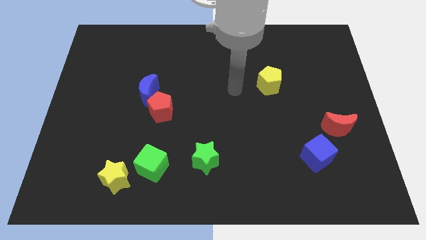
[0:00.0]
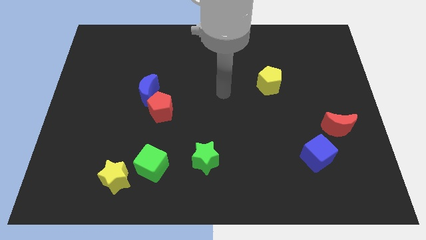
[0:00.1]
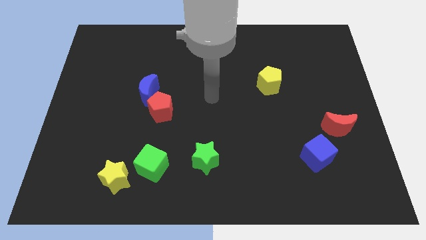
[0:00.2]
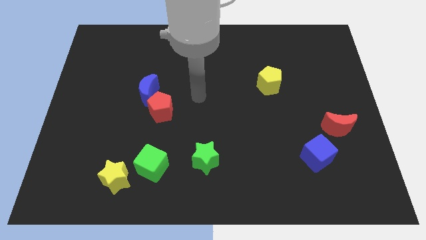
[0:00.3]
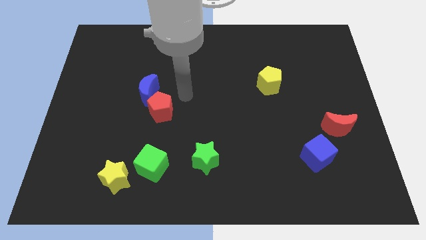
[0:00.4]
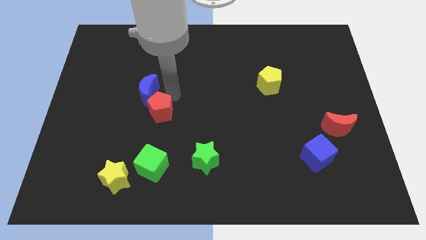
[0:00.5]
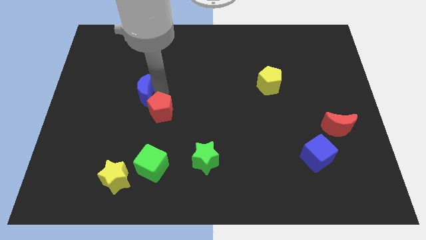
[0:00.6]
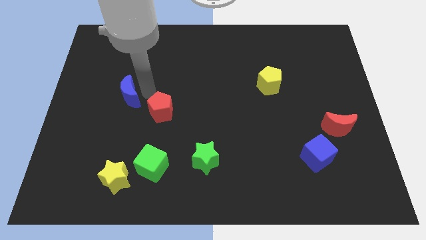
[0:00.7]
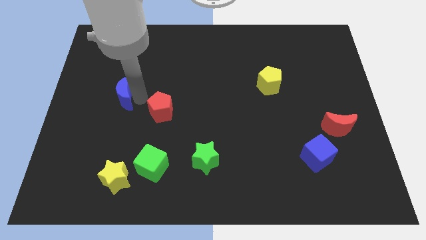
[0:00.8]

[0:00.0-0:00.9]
separate the red pentagon from the blue moon

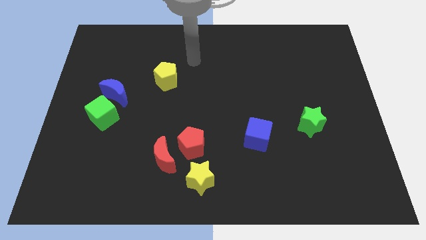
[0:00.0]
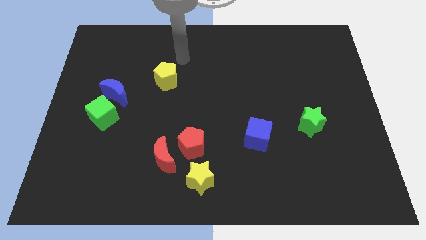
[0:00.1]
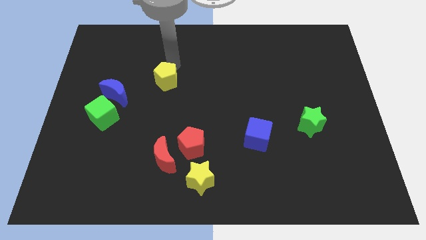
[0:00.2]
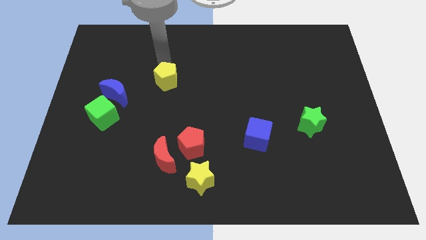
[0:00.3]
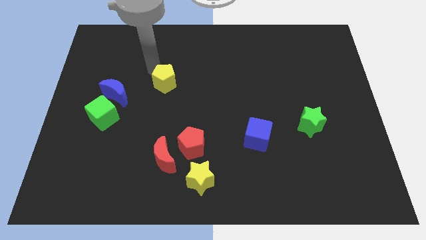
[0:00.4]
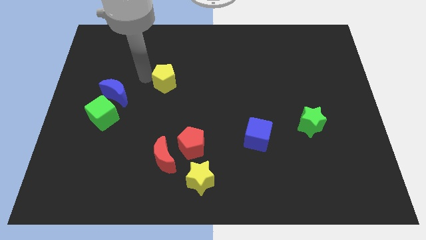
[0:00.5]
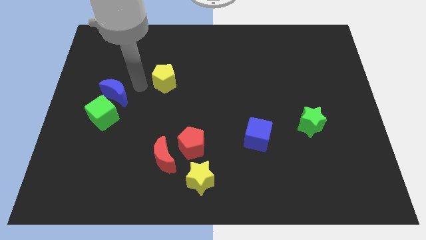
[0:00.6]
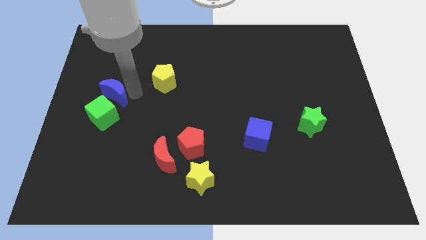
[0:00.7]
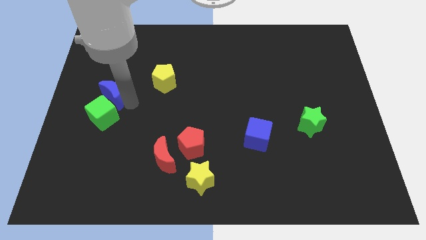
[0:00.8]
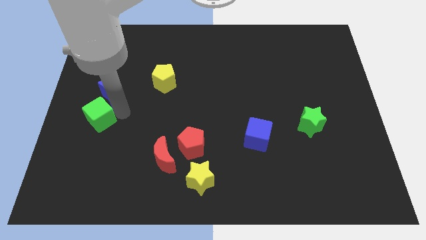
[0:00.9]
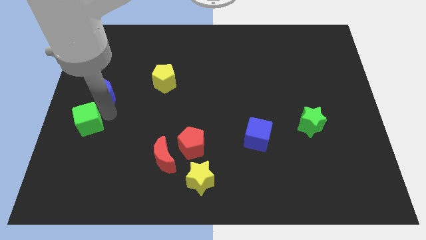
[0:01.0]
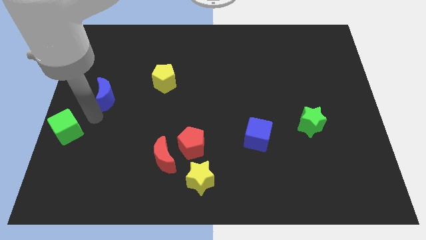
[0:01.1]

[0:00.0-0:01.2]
separate the blue moon from the green cube

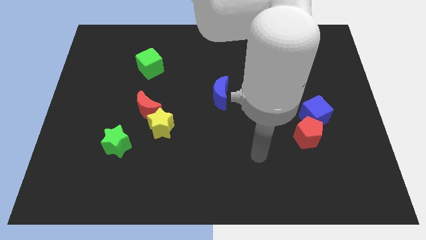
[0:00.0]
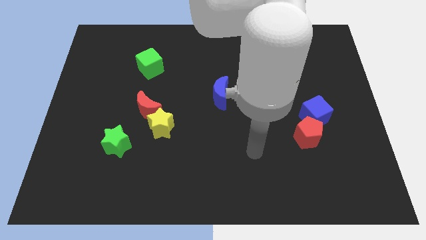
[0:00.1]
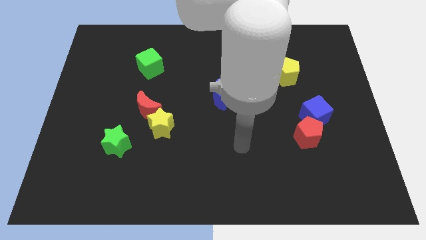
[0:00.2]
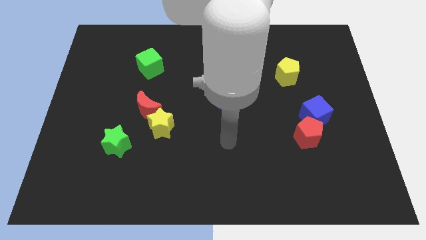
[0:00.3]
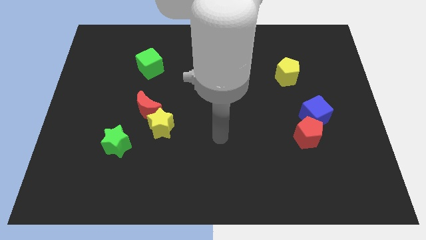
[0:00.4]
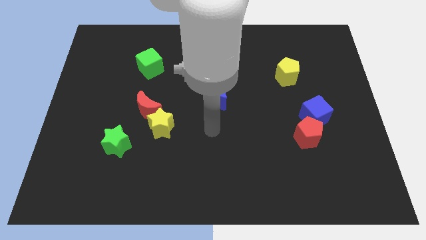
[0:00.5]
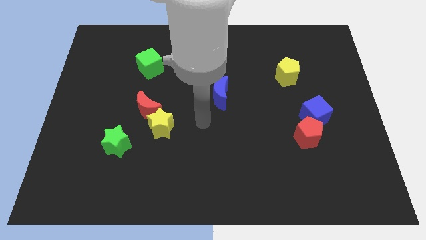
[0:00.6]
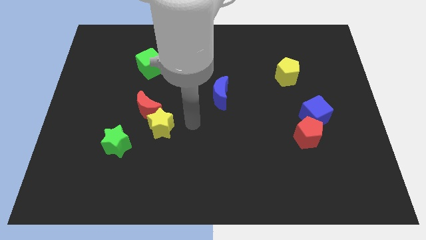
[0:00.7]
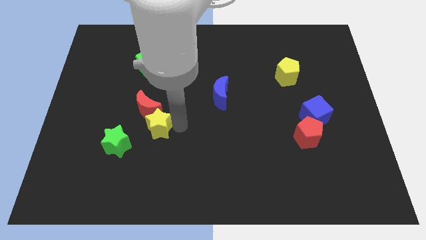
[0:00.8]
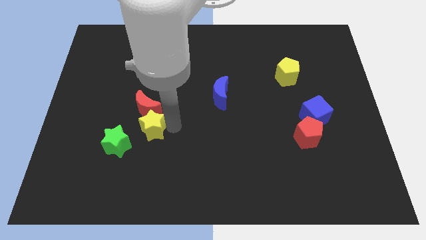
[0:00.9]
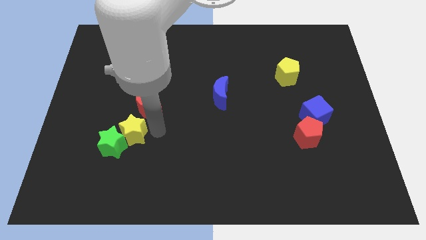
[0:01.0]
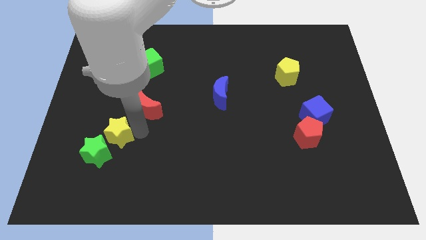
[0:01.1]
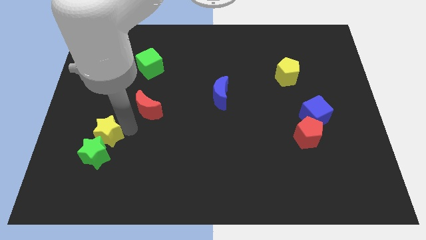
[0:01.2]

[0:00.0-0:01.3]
pull the red moon apart from the yellow star

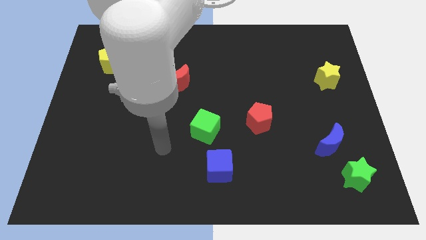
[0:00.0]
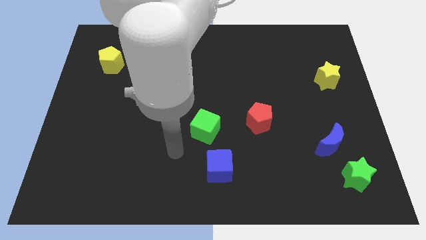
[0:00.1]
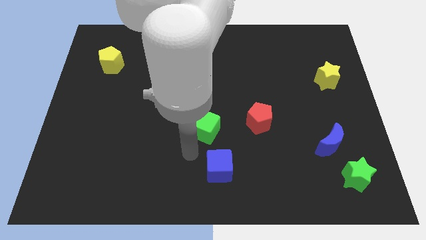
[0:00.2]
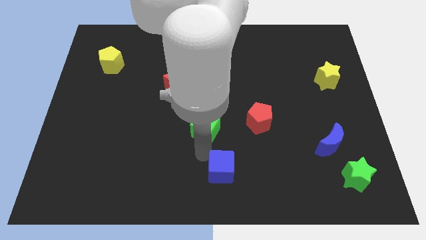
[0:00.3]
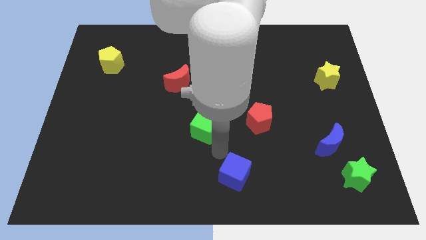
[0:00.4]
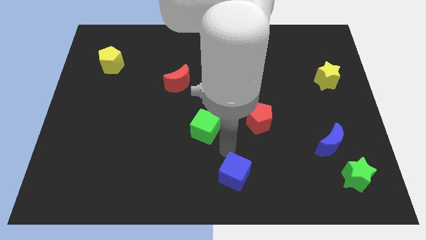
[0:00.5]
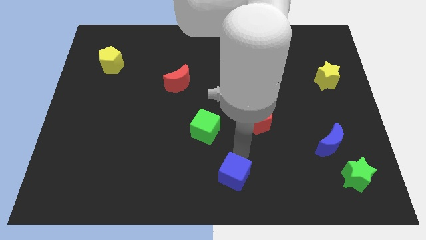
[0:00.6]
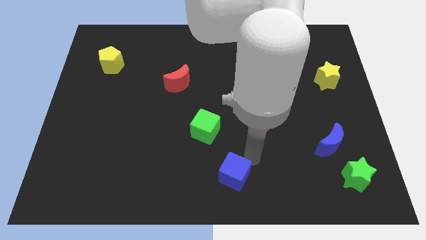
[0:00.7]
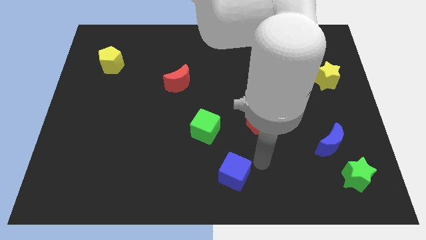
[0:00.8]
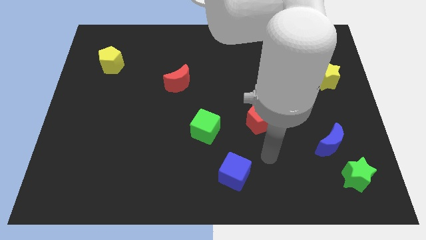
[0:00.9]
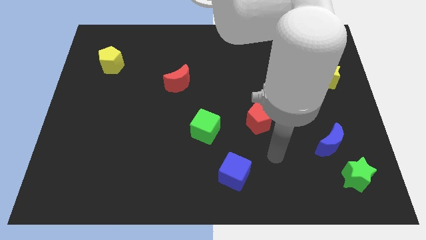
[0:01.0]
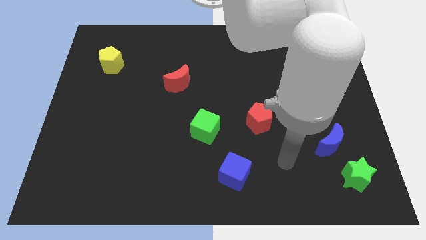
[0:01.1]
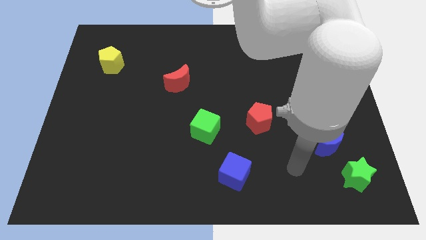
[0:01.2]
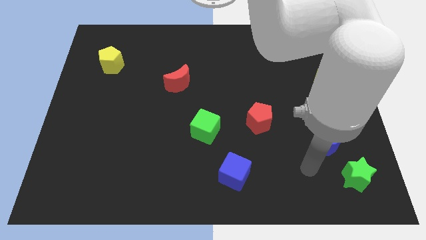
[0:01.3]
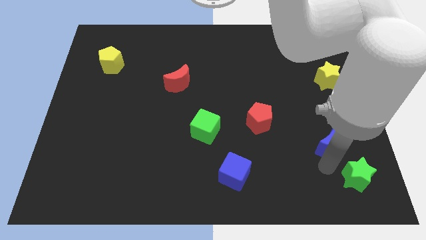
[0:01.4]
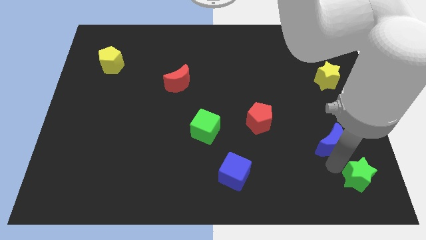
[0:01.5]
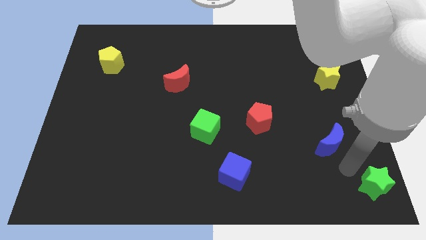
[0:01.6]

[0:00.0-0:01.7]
move the blue moon away from the green star

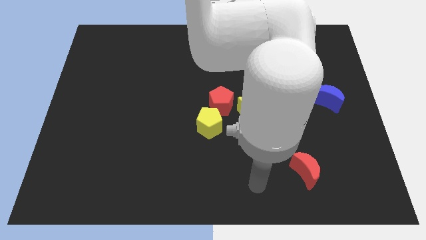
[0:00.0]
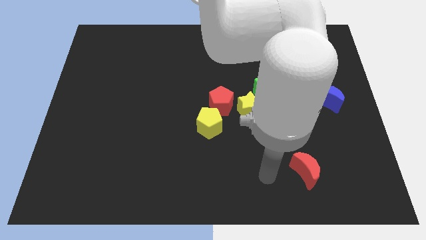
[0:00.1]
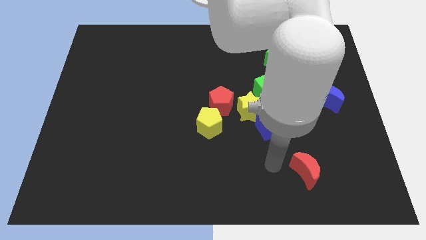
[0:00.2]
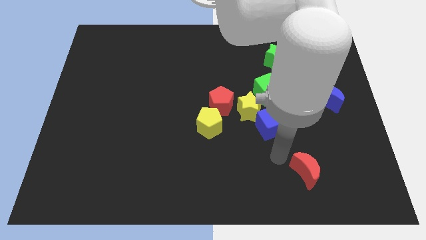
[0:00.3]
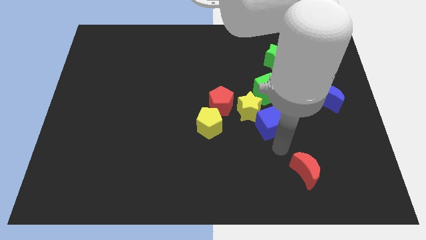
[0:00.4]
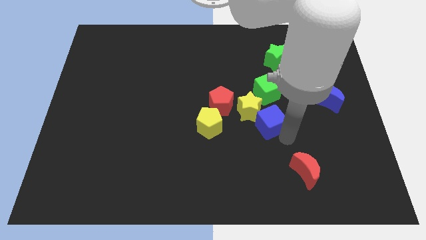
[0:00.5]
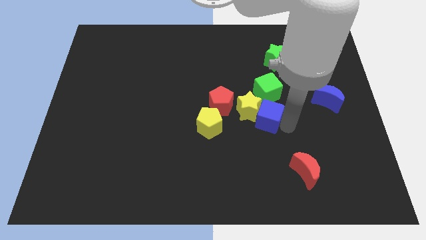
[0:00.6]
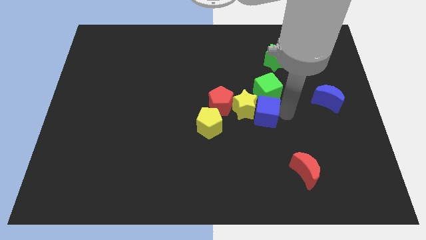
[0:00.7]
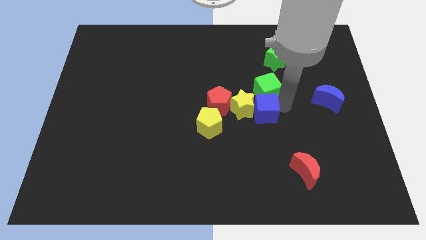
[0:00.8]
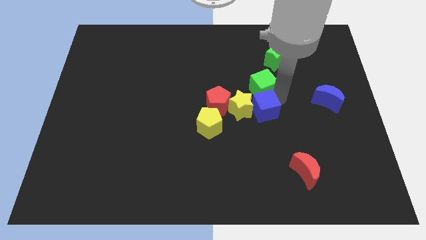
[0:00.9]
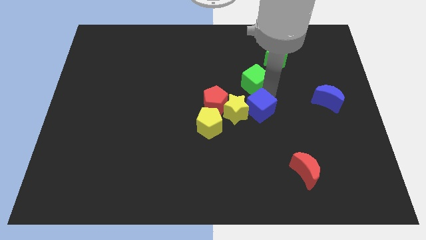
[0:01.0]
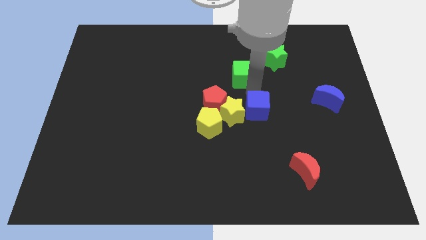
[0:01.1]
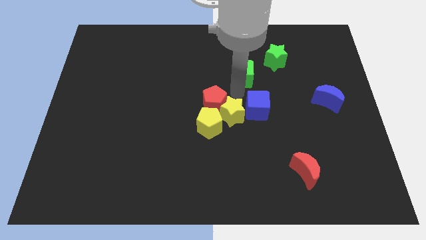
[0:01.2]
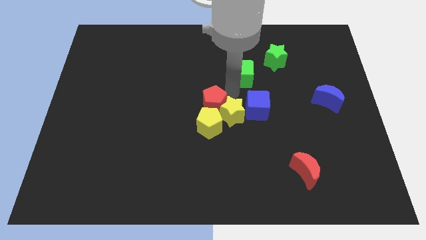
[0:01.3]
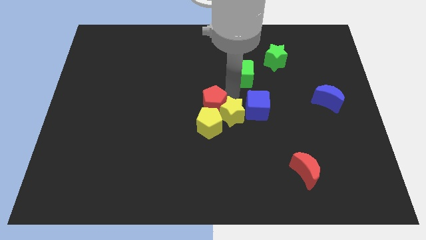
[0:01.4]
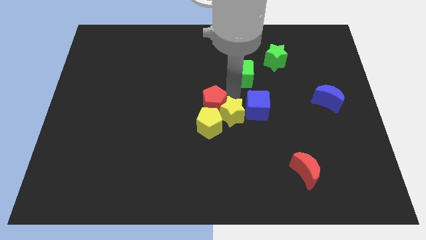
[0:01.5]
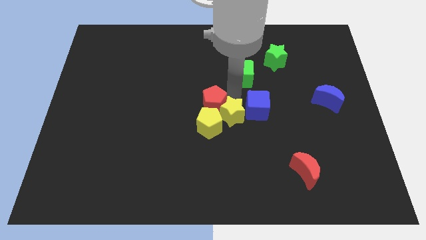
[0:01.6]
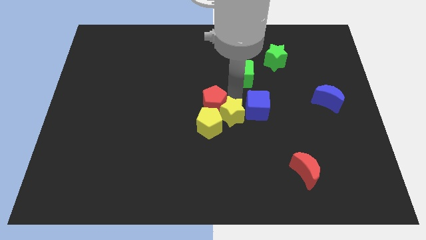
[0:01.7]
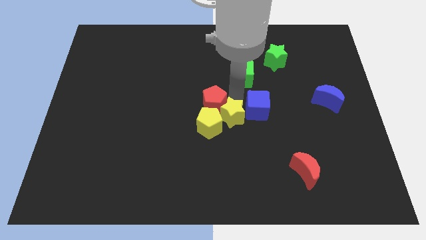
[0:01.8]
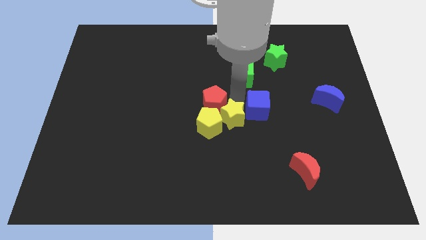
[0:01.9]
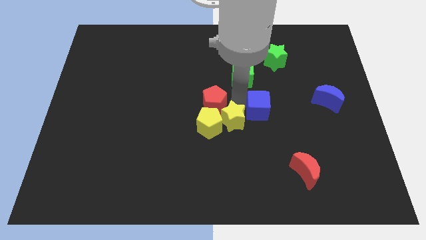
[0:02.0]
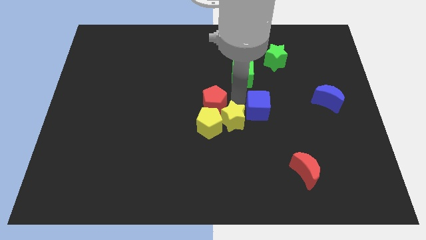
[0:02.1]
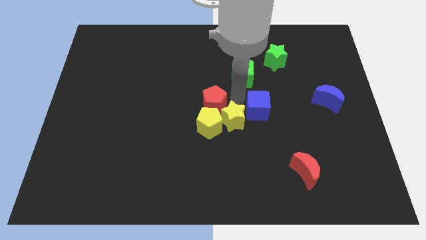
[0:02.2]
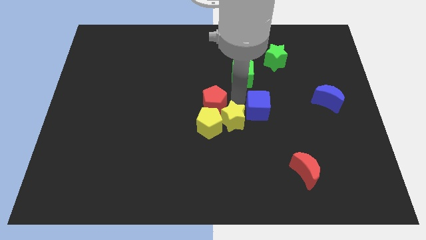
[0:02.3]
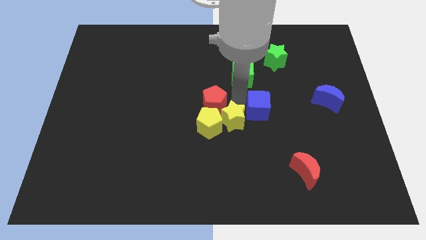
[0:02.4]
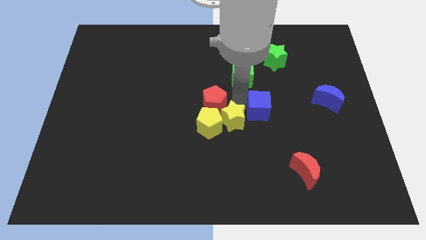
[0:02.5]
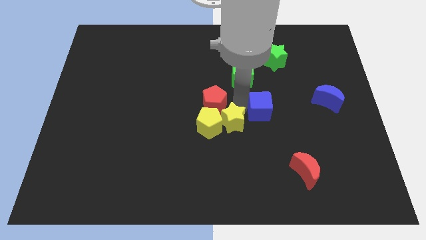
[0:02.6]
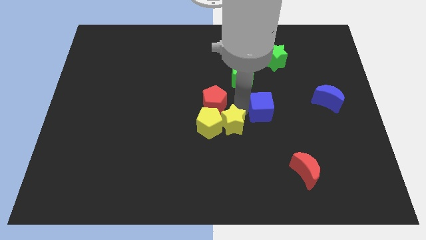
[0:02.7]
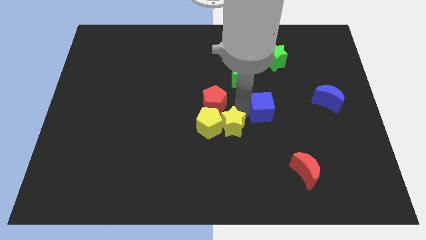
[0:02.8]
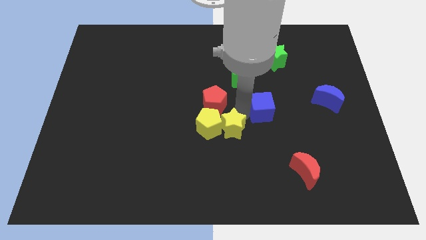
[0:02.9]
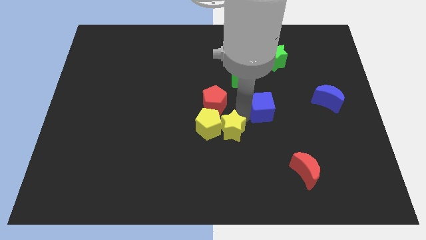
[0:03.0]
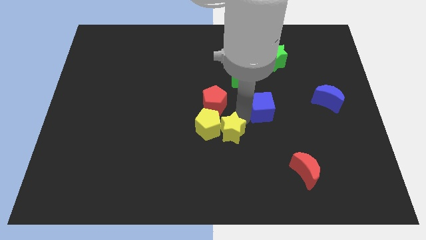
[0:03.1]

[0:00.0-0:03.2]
move the yellow star away from the group

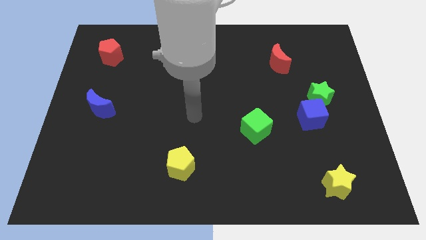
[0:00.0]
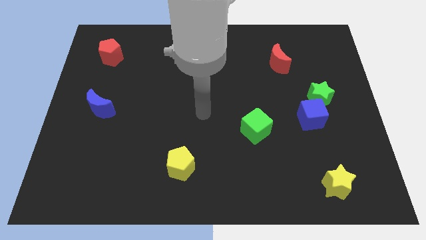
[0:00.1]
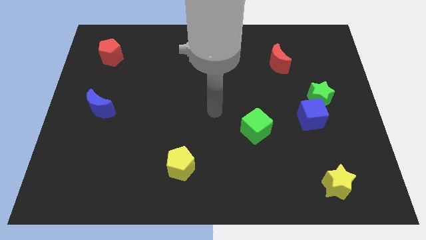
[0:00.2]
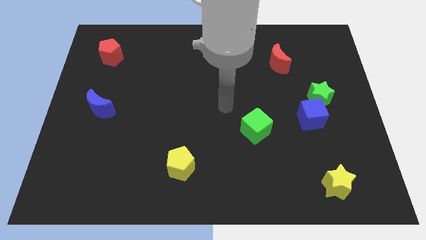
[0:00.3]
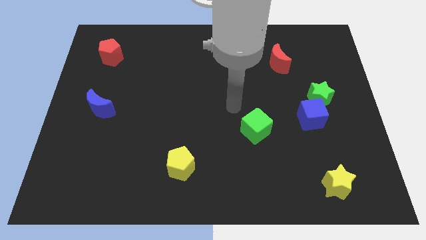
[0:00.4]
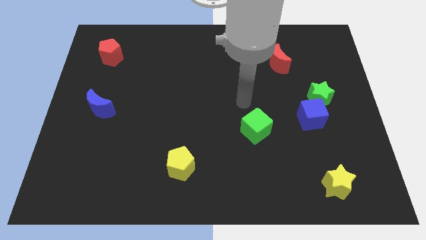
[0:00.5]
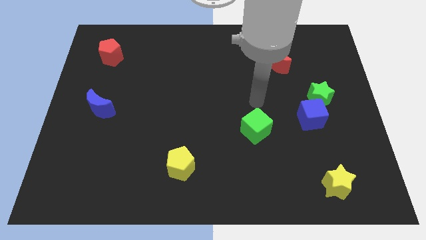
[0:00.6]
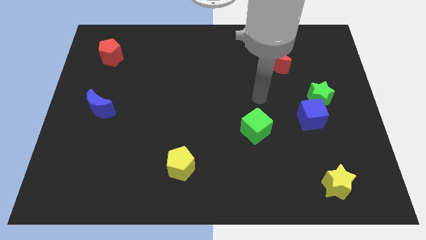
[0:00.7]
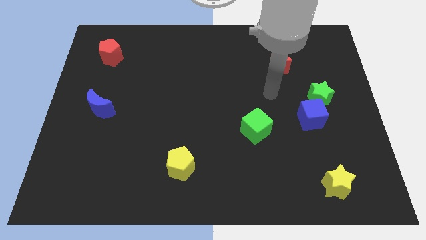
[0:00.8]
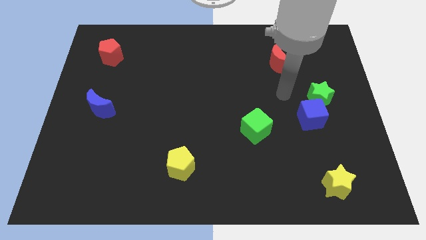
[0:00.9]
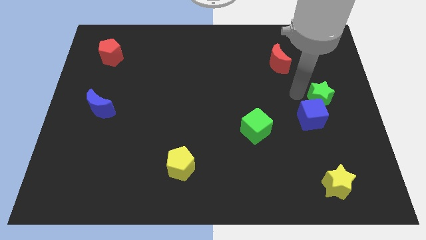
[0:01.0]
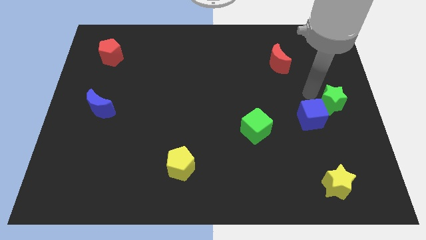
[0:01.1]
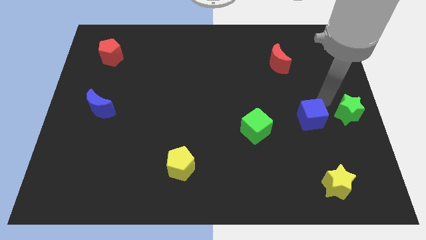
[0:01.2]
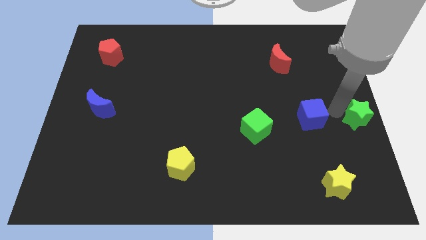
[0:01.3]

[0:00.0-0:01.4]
move the blue cube away from the green star
